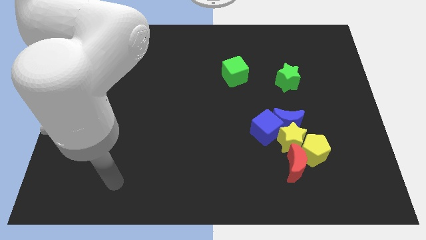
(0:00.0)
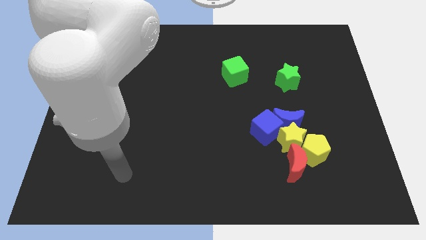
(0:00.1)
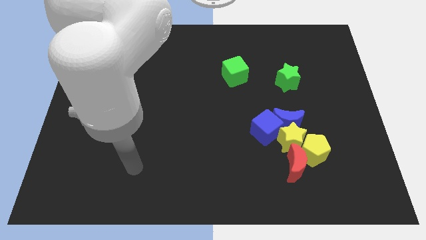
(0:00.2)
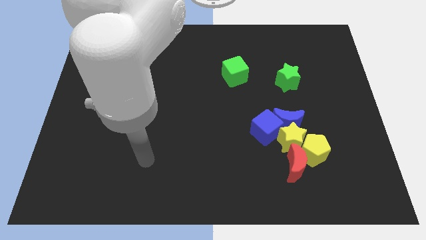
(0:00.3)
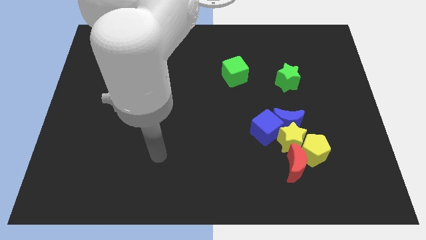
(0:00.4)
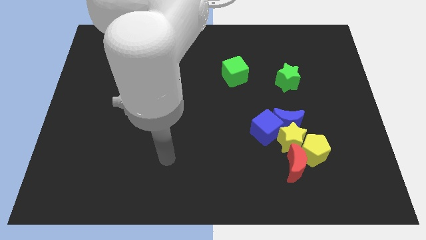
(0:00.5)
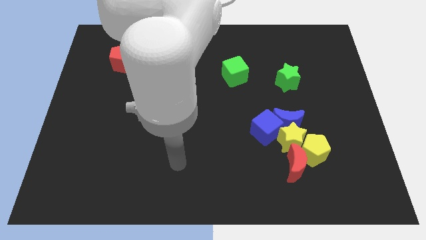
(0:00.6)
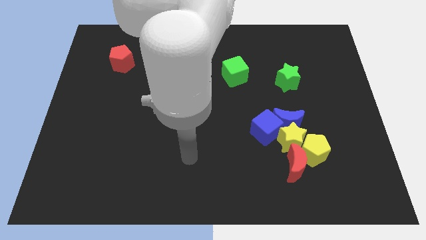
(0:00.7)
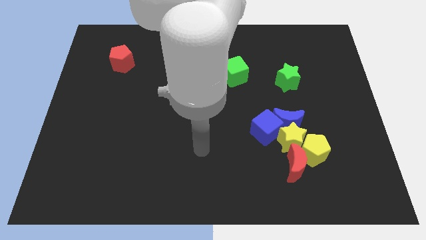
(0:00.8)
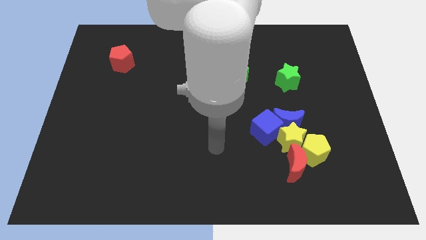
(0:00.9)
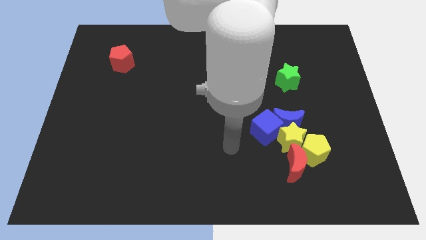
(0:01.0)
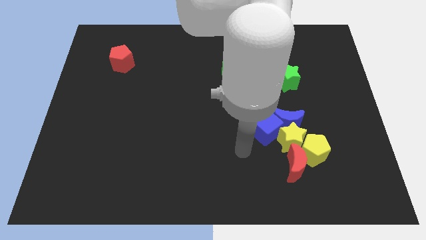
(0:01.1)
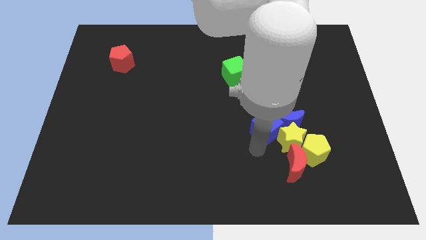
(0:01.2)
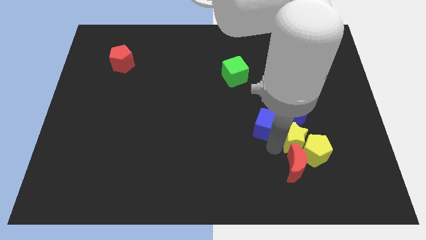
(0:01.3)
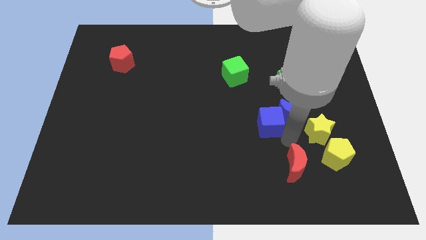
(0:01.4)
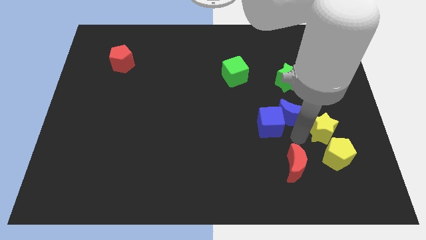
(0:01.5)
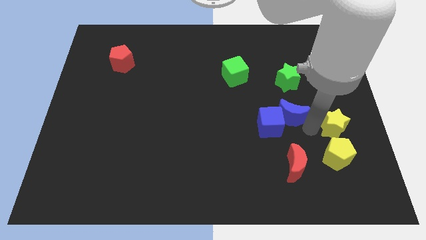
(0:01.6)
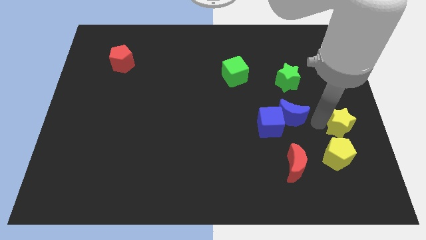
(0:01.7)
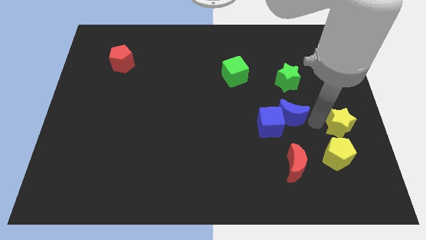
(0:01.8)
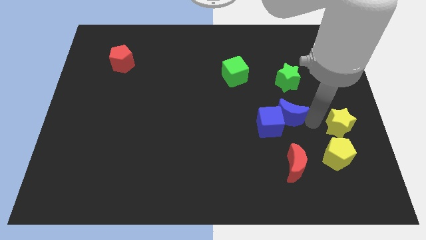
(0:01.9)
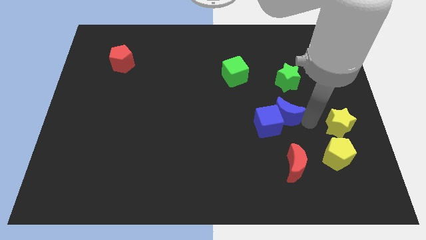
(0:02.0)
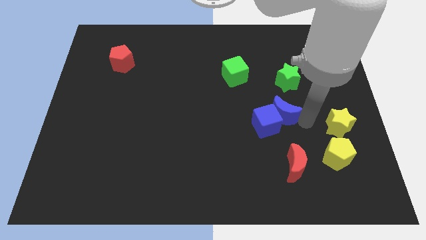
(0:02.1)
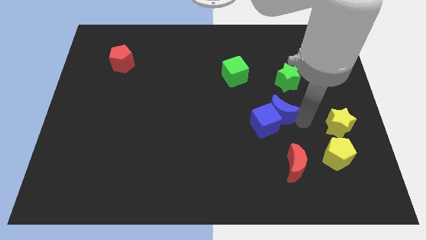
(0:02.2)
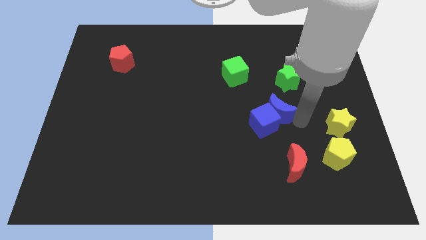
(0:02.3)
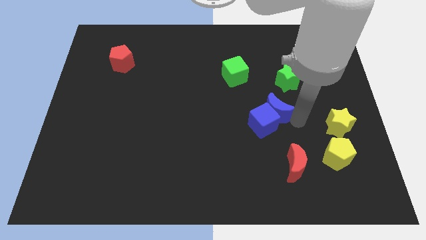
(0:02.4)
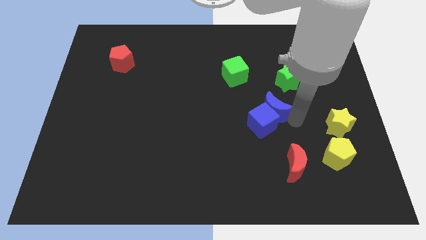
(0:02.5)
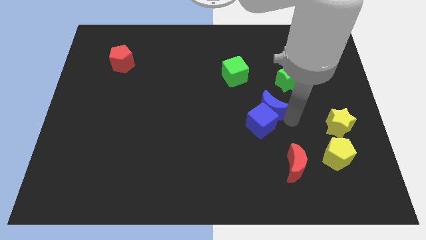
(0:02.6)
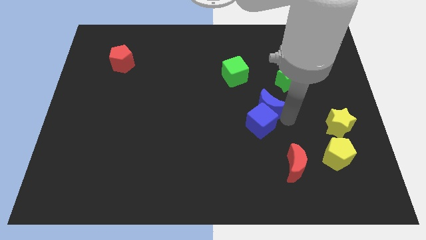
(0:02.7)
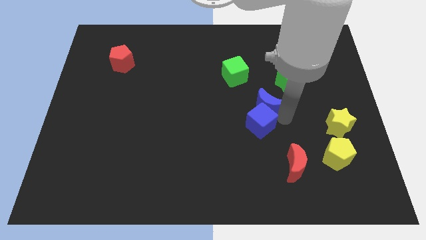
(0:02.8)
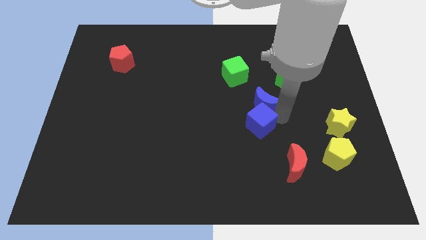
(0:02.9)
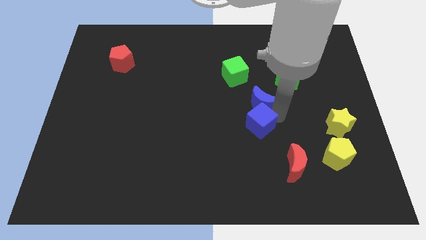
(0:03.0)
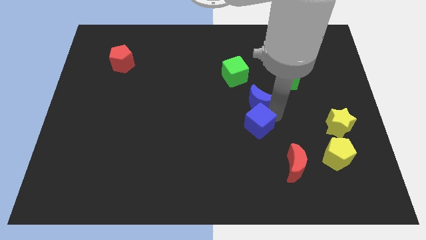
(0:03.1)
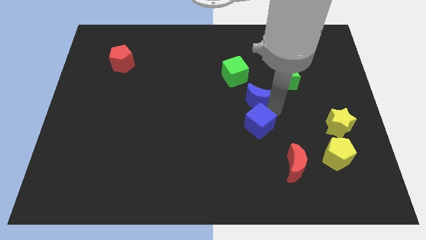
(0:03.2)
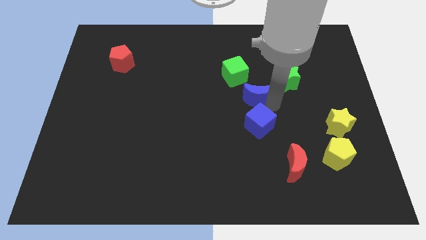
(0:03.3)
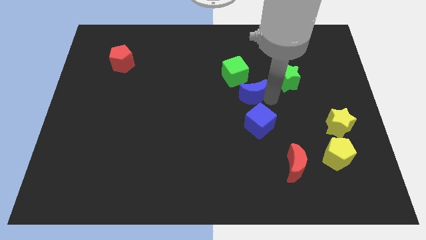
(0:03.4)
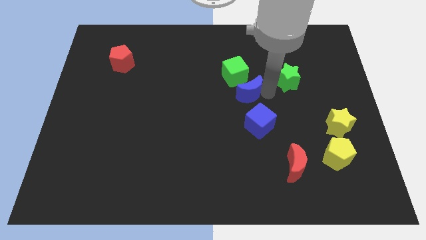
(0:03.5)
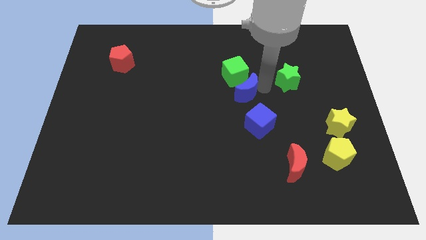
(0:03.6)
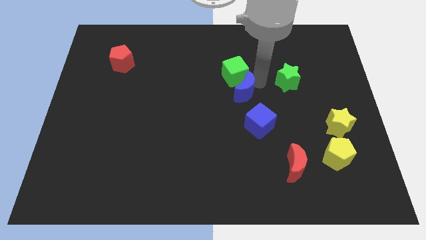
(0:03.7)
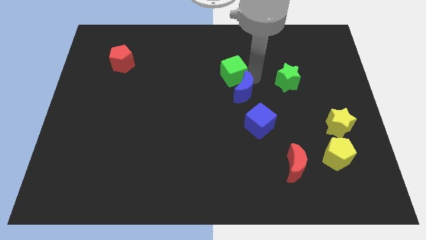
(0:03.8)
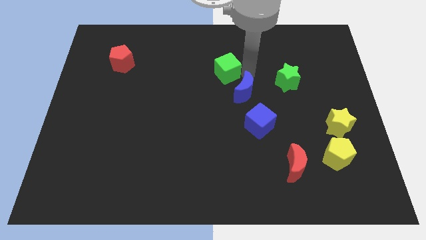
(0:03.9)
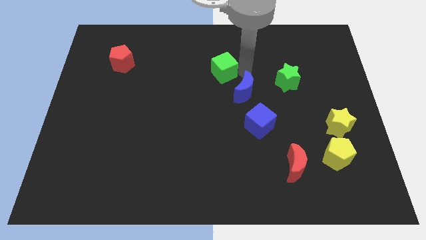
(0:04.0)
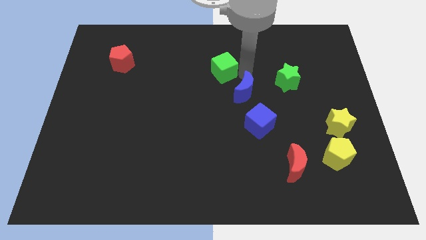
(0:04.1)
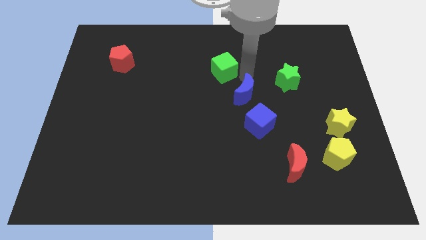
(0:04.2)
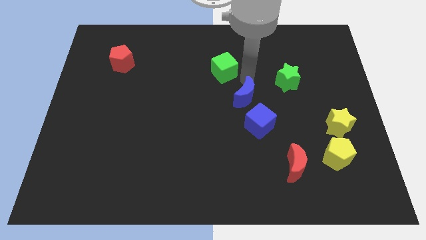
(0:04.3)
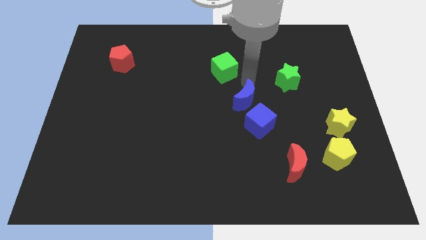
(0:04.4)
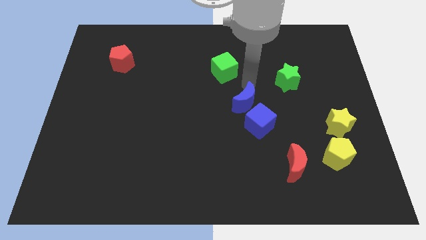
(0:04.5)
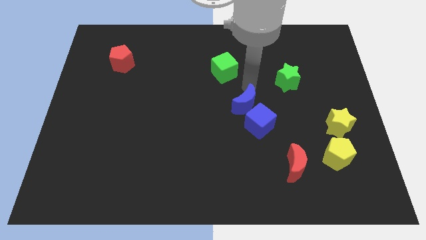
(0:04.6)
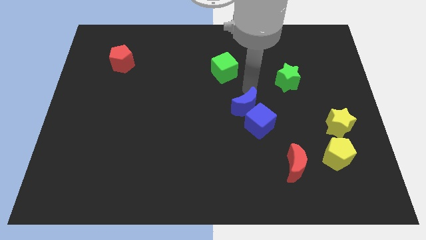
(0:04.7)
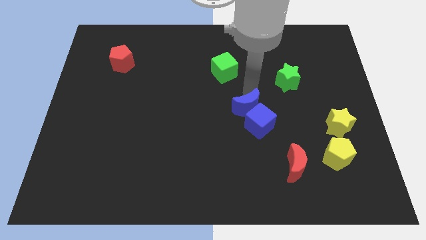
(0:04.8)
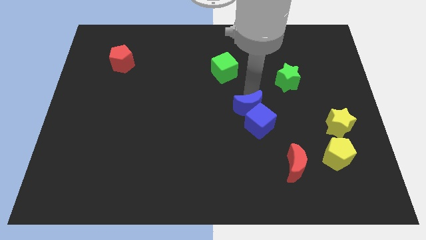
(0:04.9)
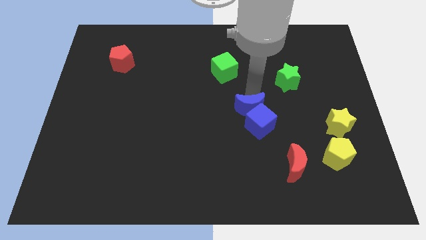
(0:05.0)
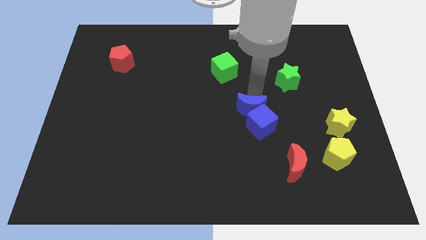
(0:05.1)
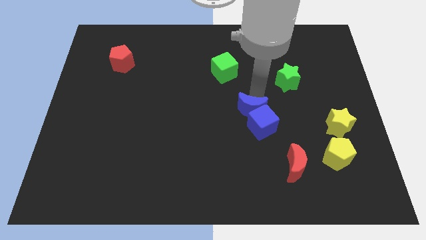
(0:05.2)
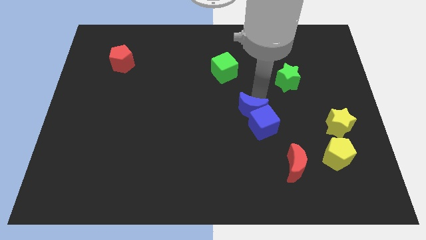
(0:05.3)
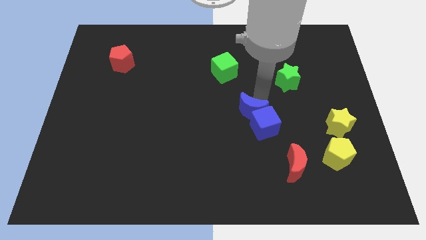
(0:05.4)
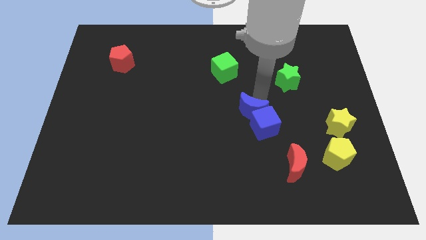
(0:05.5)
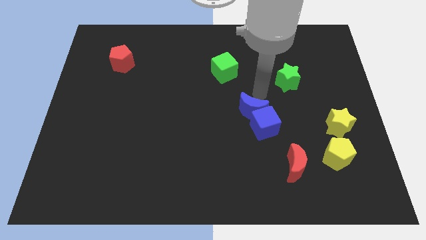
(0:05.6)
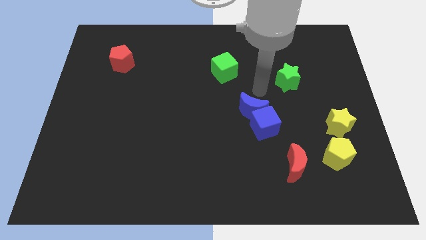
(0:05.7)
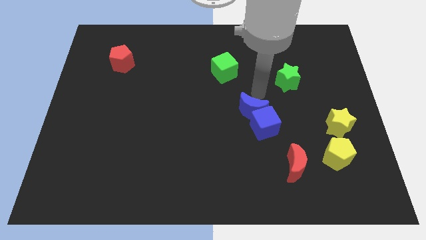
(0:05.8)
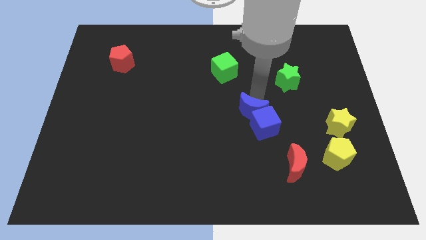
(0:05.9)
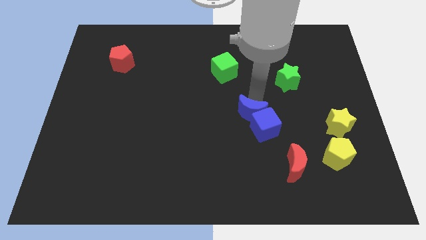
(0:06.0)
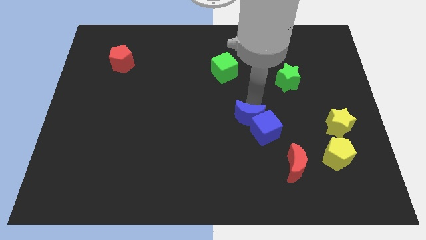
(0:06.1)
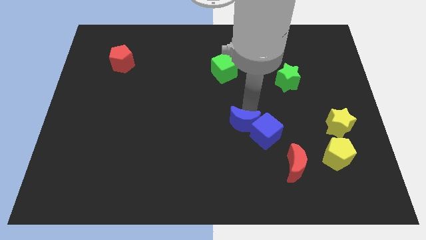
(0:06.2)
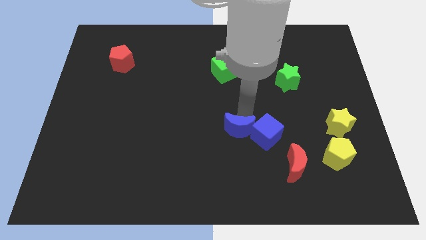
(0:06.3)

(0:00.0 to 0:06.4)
push the blue moon slightly down and left diagonally

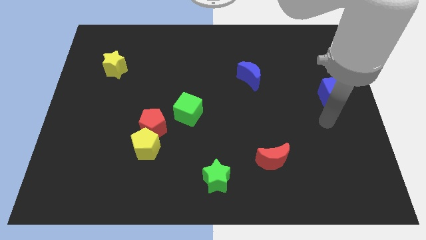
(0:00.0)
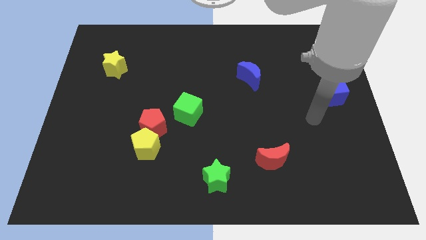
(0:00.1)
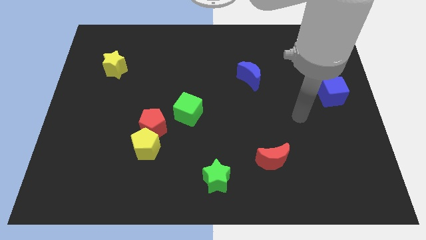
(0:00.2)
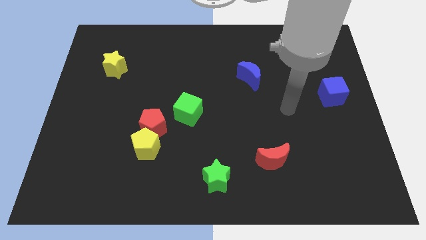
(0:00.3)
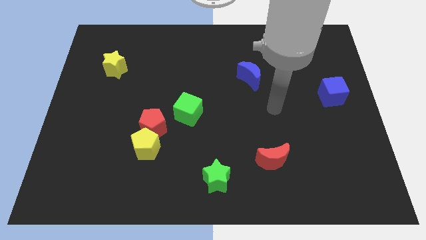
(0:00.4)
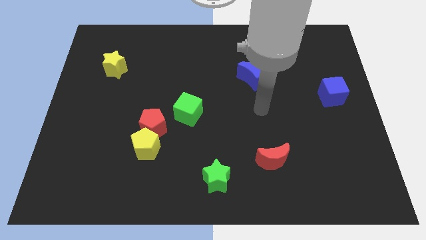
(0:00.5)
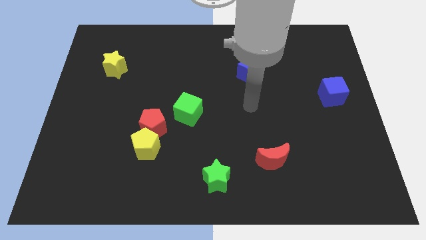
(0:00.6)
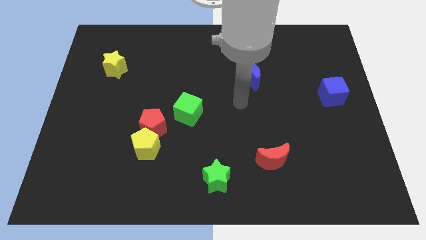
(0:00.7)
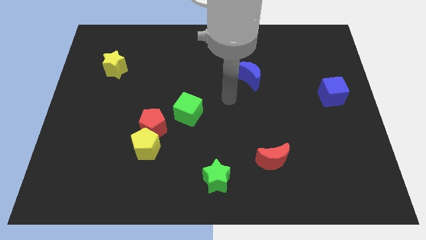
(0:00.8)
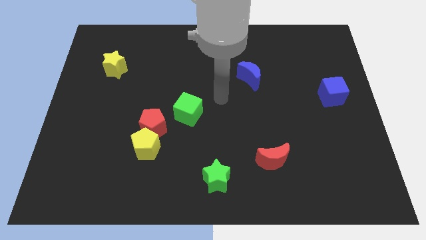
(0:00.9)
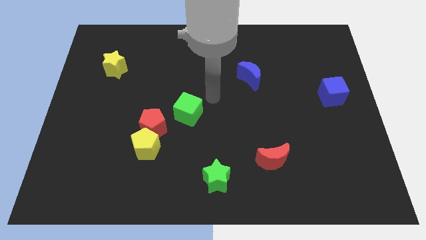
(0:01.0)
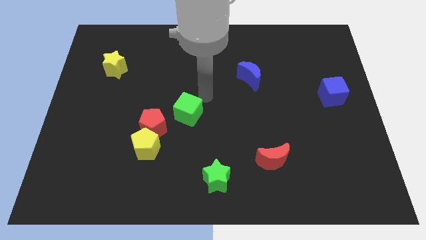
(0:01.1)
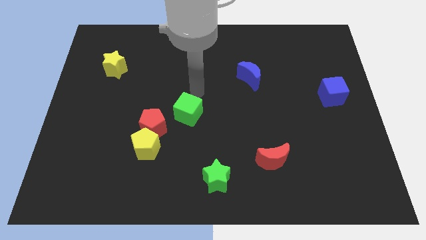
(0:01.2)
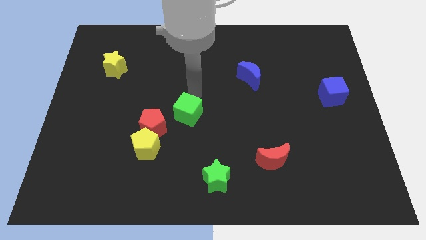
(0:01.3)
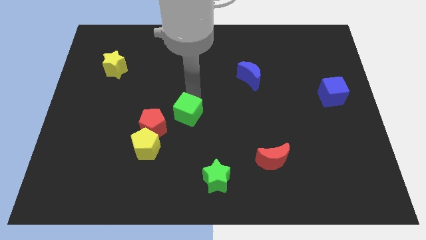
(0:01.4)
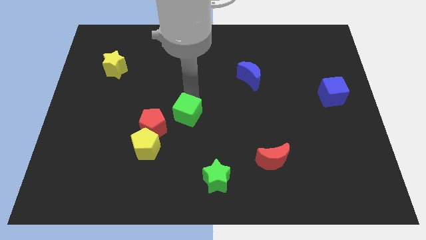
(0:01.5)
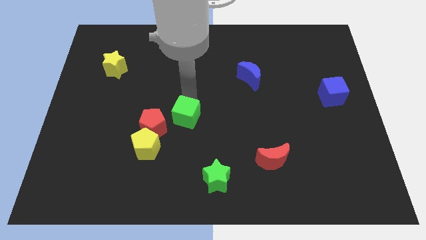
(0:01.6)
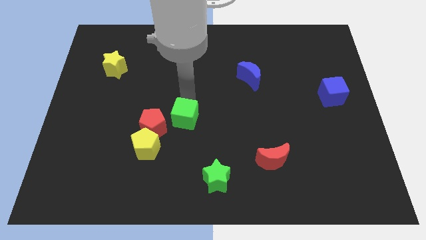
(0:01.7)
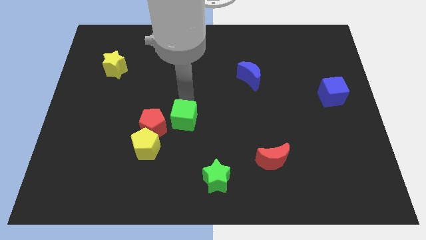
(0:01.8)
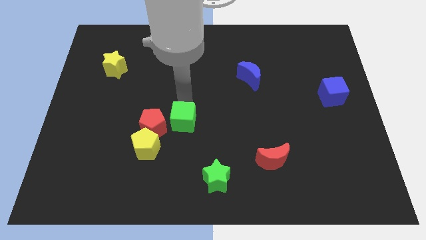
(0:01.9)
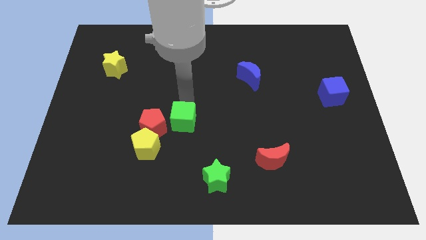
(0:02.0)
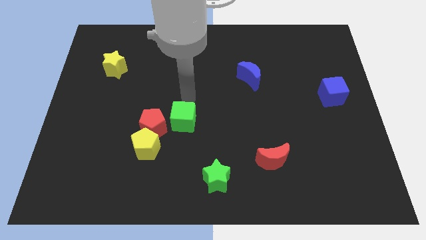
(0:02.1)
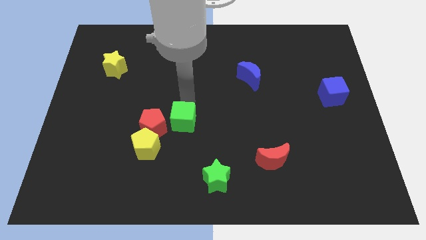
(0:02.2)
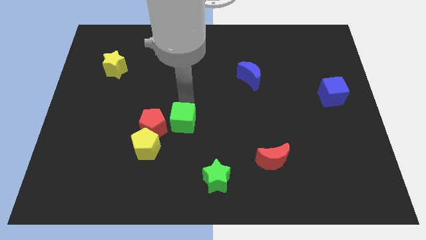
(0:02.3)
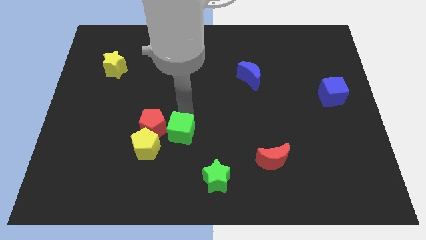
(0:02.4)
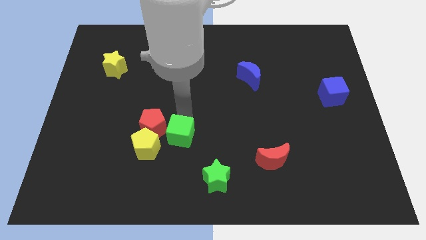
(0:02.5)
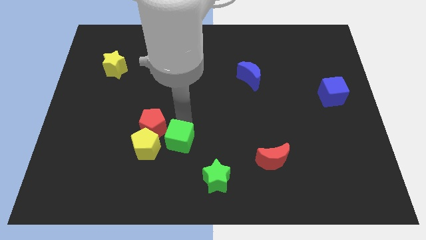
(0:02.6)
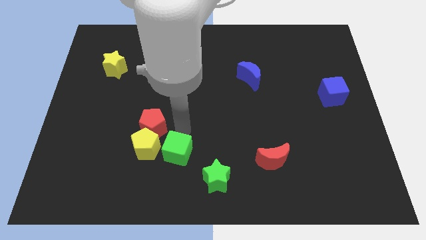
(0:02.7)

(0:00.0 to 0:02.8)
slide the green cube downwards and left a little
